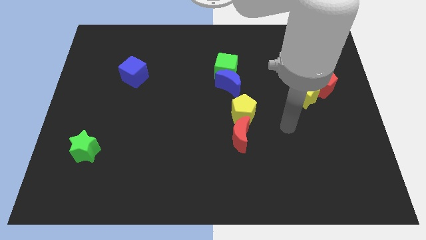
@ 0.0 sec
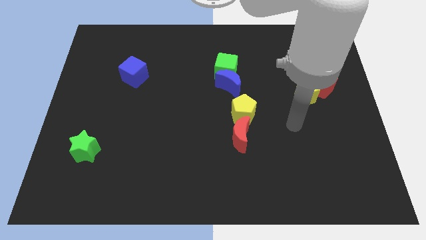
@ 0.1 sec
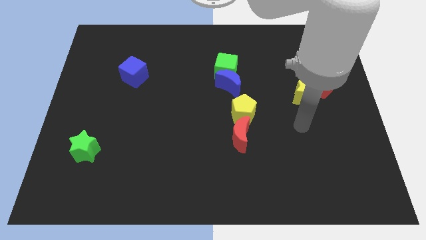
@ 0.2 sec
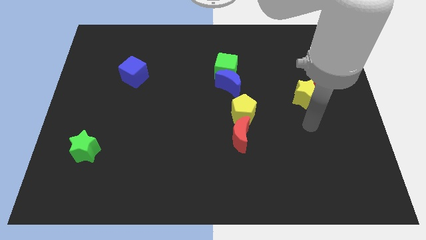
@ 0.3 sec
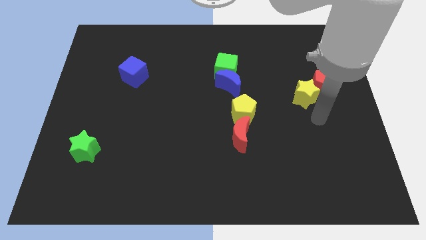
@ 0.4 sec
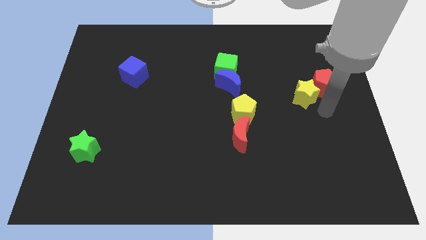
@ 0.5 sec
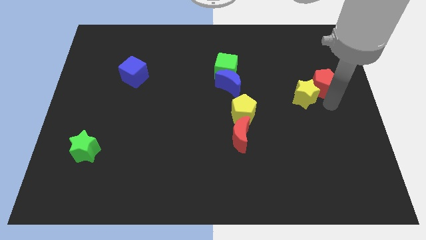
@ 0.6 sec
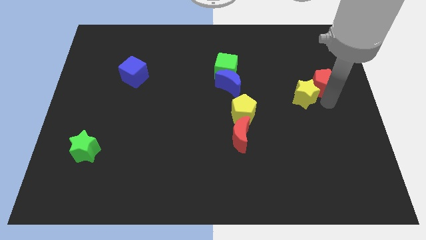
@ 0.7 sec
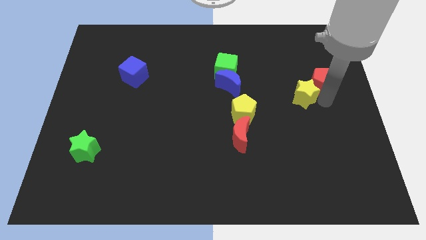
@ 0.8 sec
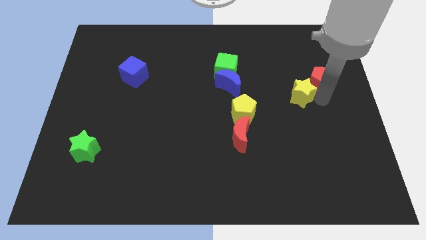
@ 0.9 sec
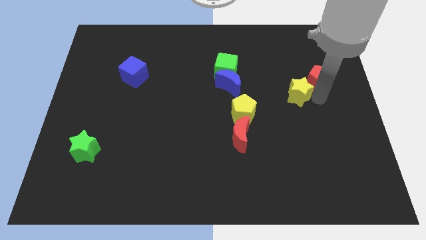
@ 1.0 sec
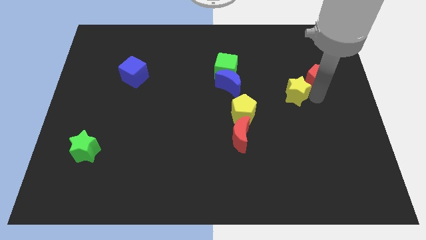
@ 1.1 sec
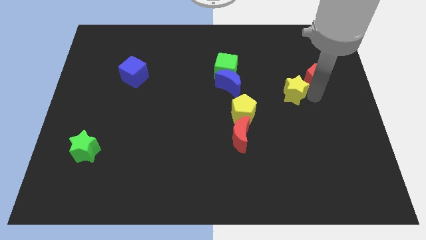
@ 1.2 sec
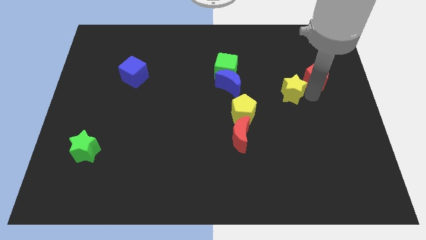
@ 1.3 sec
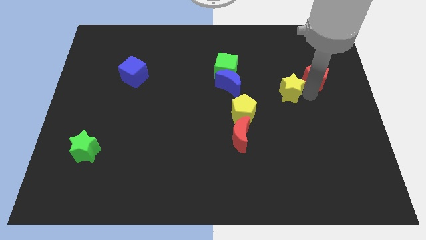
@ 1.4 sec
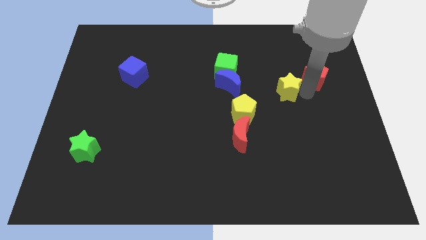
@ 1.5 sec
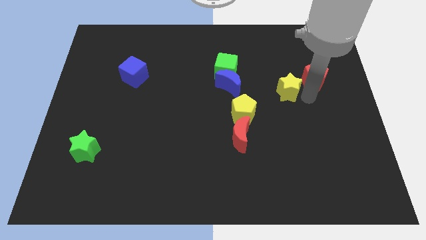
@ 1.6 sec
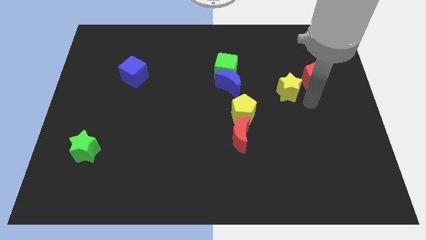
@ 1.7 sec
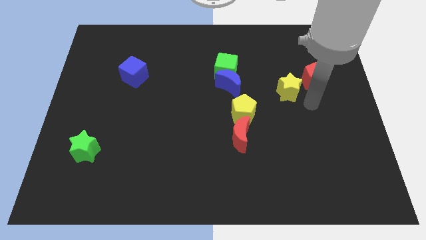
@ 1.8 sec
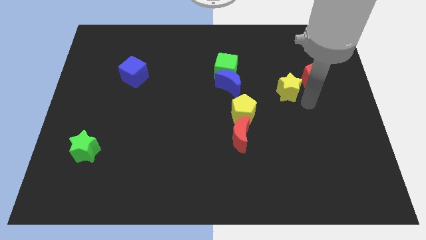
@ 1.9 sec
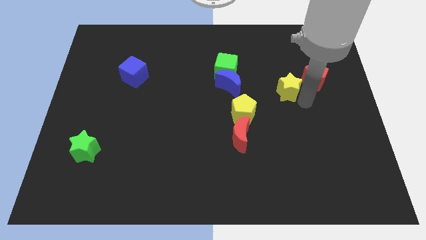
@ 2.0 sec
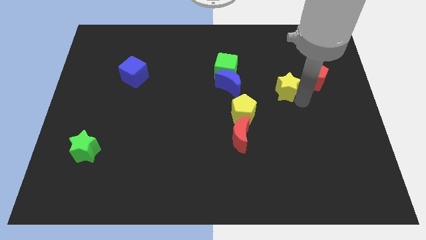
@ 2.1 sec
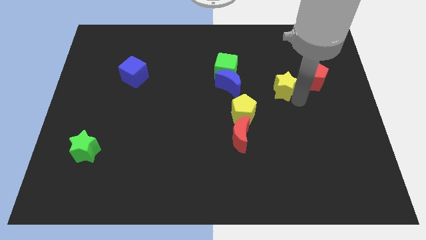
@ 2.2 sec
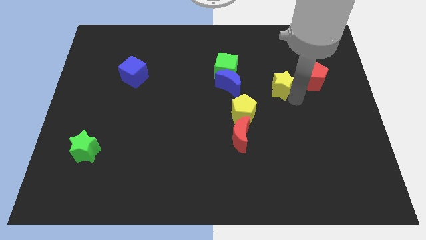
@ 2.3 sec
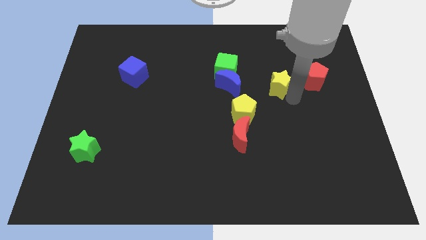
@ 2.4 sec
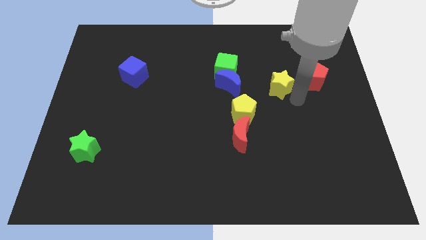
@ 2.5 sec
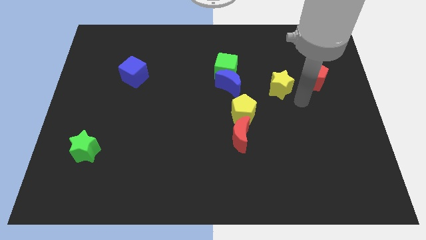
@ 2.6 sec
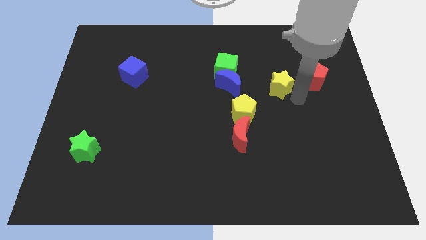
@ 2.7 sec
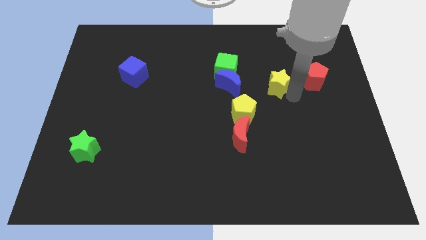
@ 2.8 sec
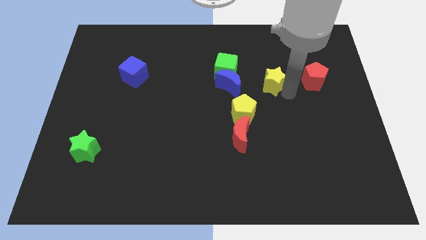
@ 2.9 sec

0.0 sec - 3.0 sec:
slide the yellow star a little upwards and then to the left

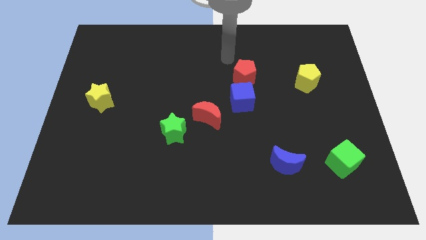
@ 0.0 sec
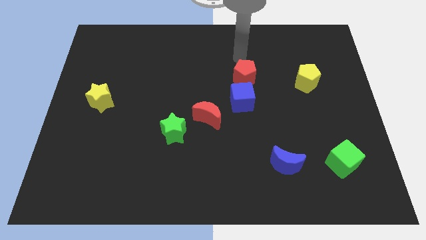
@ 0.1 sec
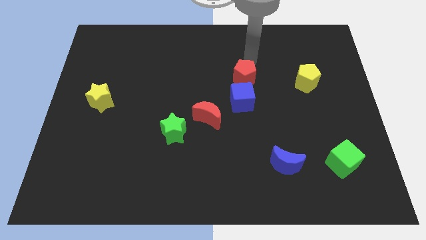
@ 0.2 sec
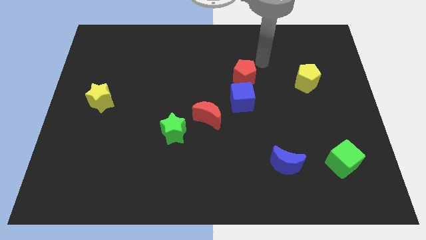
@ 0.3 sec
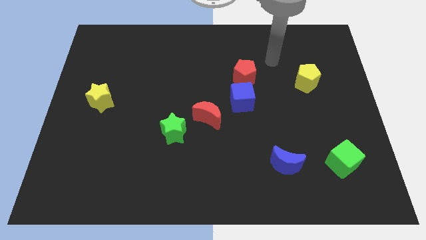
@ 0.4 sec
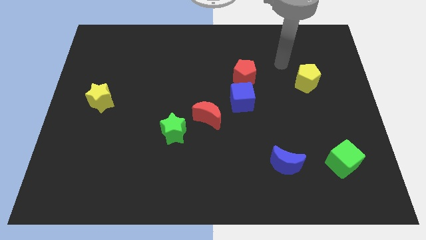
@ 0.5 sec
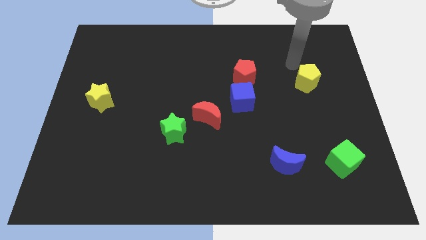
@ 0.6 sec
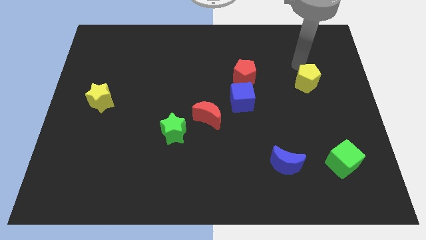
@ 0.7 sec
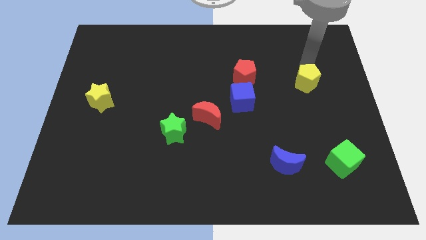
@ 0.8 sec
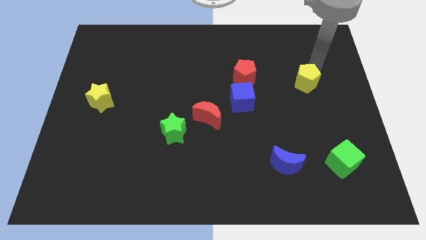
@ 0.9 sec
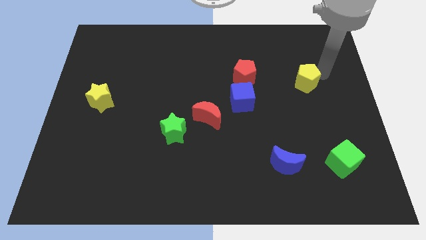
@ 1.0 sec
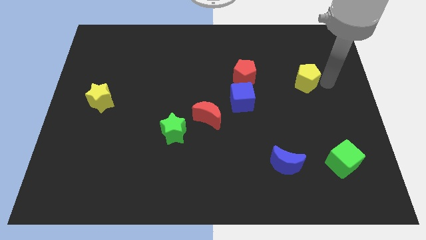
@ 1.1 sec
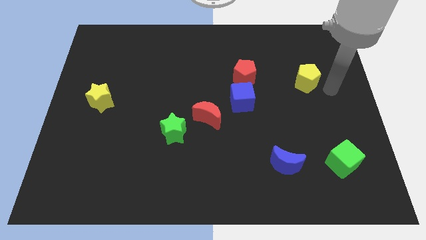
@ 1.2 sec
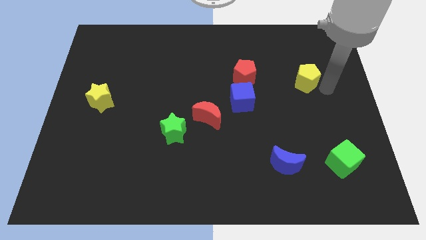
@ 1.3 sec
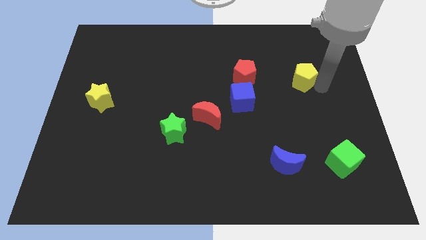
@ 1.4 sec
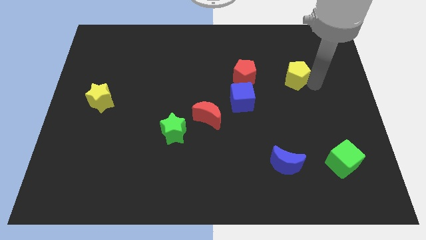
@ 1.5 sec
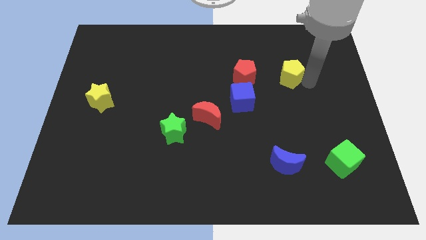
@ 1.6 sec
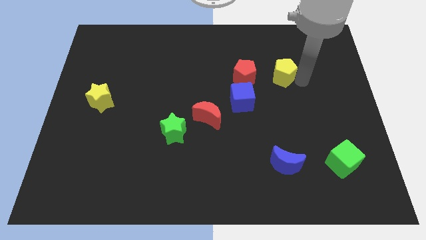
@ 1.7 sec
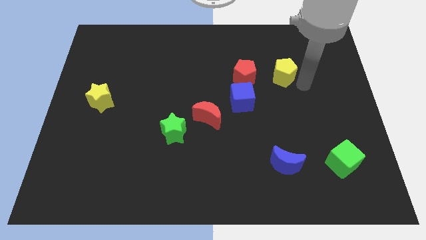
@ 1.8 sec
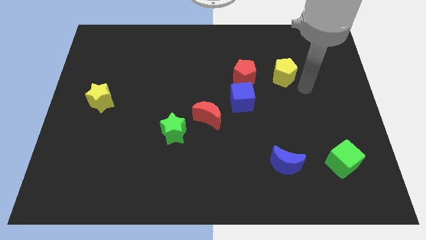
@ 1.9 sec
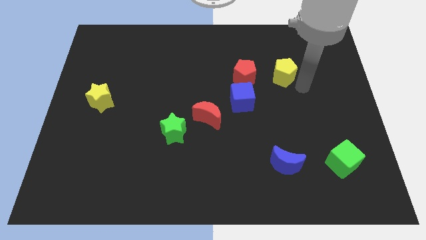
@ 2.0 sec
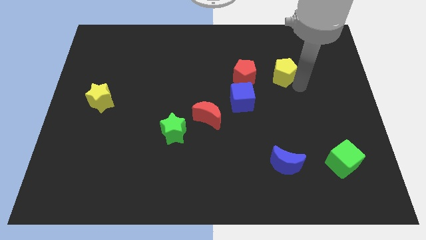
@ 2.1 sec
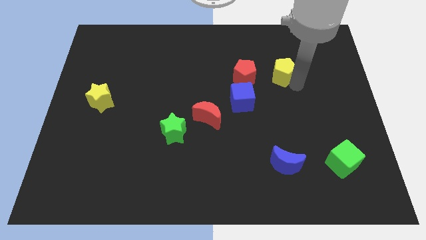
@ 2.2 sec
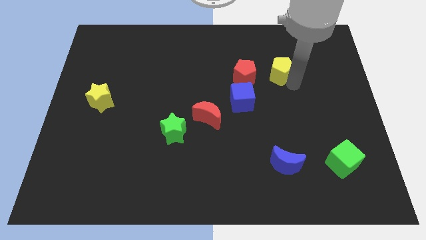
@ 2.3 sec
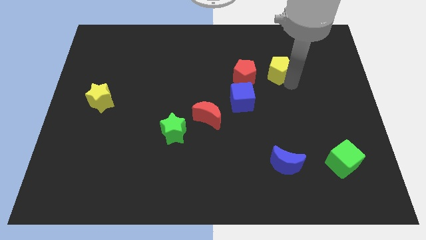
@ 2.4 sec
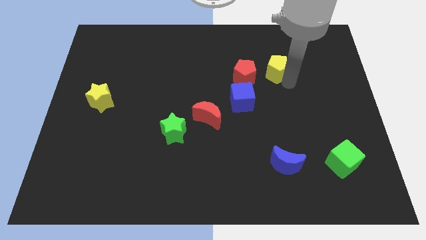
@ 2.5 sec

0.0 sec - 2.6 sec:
slide the yellow pentagon to the left slightly

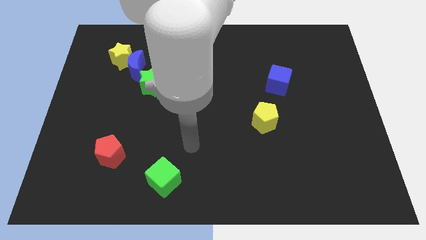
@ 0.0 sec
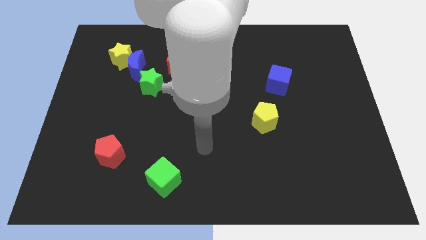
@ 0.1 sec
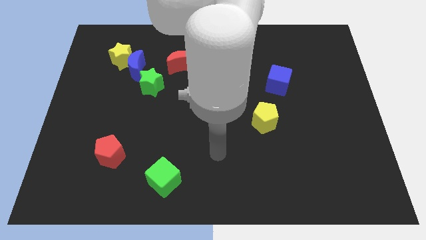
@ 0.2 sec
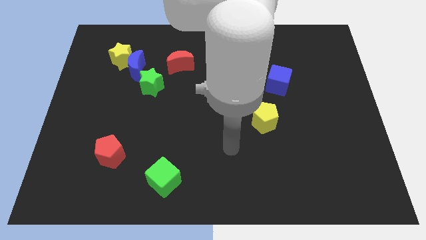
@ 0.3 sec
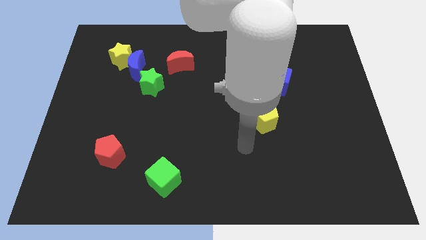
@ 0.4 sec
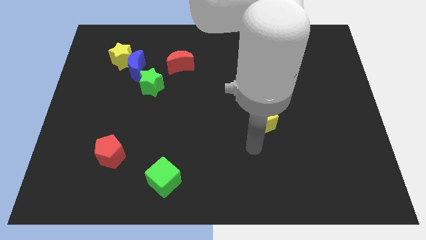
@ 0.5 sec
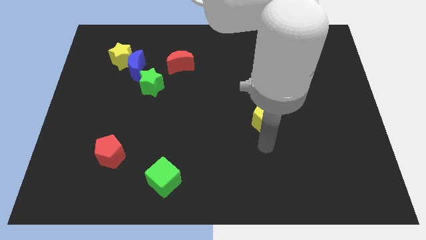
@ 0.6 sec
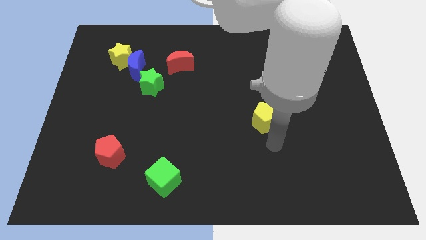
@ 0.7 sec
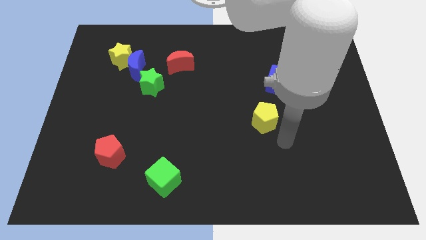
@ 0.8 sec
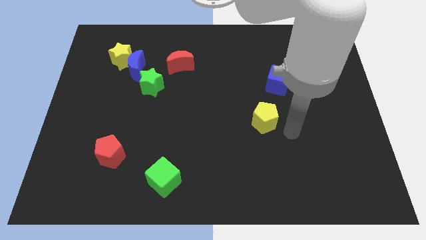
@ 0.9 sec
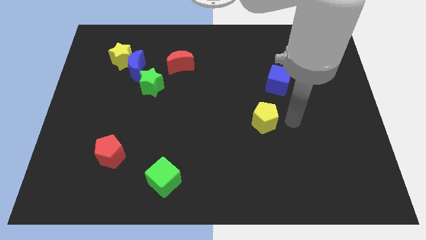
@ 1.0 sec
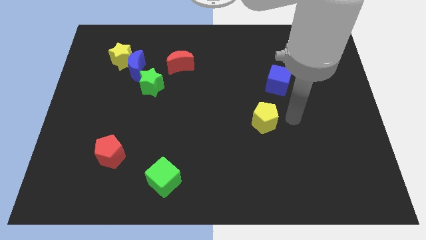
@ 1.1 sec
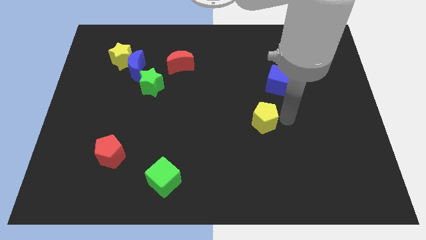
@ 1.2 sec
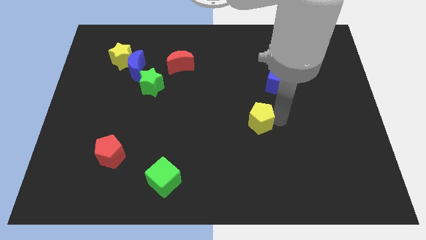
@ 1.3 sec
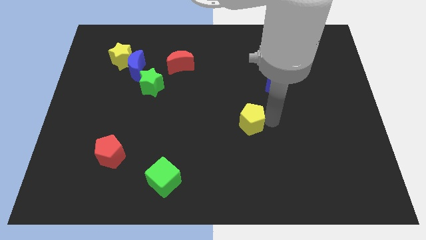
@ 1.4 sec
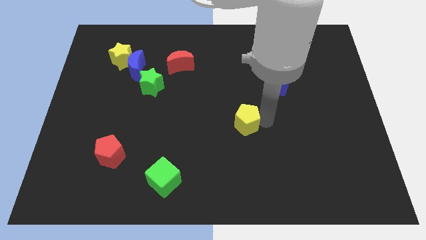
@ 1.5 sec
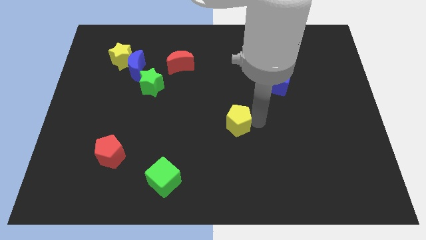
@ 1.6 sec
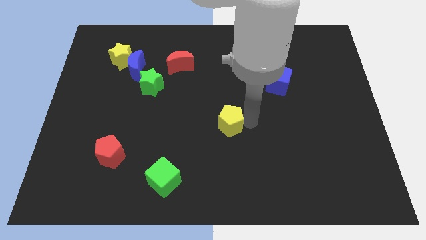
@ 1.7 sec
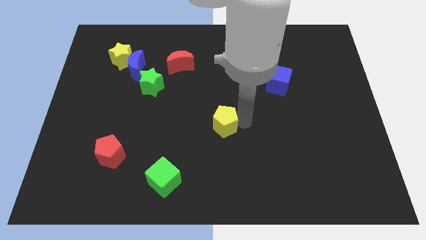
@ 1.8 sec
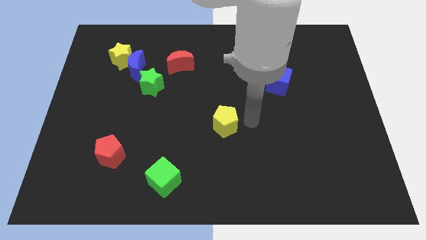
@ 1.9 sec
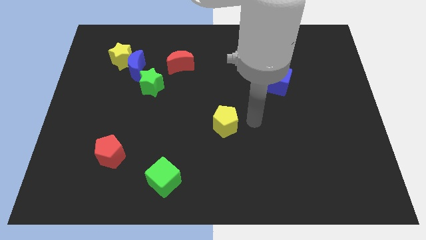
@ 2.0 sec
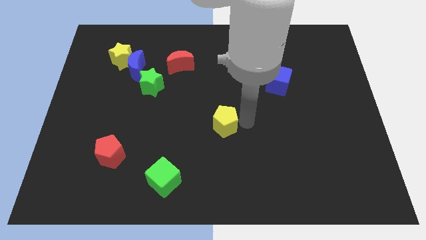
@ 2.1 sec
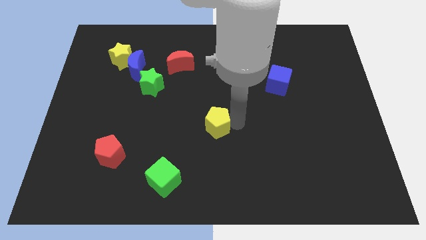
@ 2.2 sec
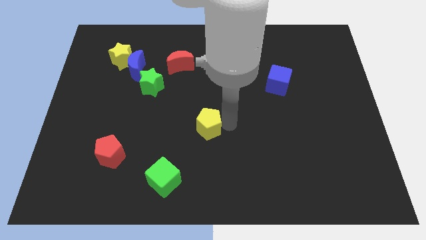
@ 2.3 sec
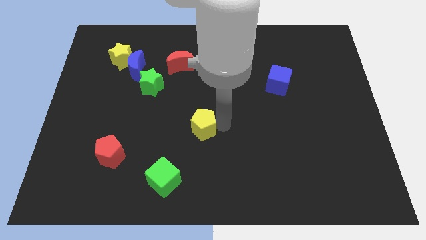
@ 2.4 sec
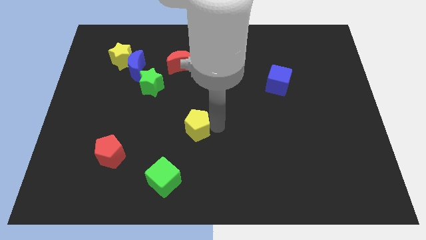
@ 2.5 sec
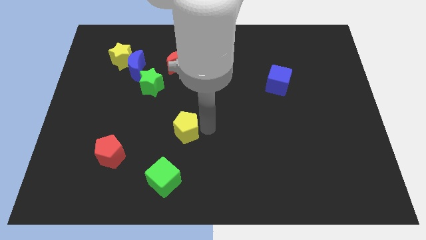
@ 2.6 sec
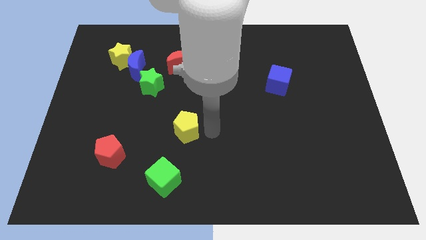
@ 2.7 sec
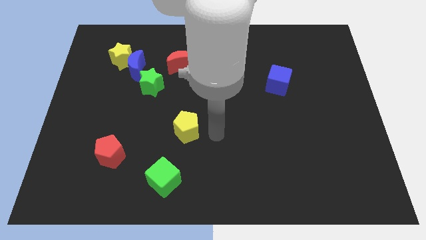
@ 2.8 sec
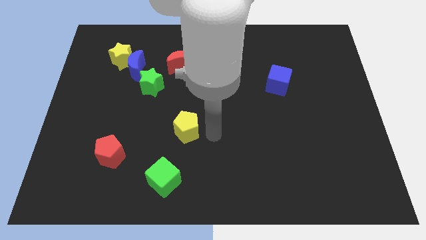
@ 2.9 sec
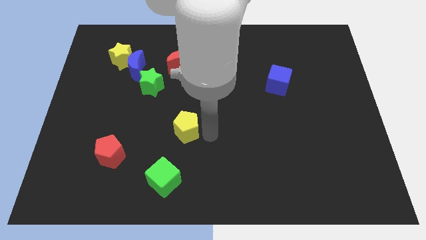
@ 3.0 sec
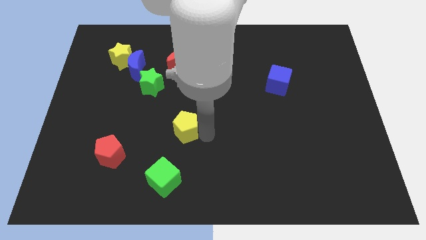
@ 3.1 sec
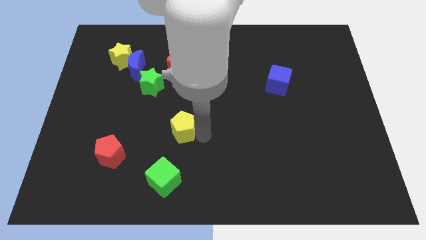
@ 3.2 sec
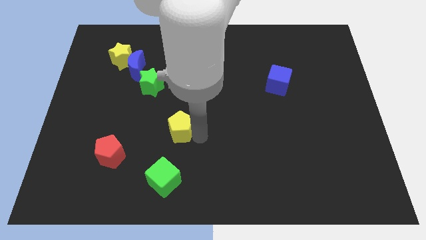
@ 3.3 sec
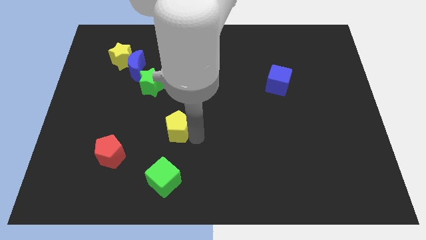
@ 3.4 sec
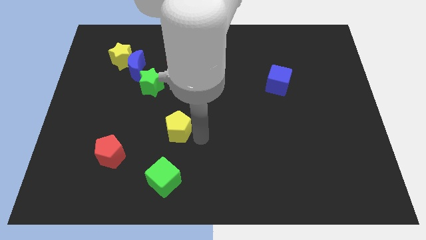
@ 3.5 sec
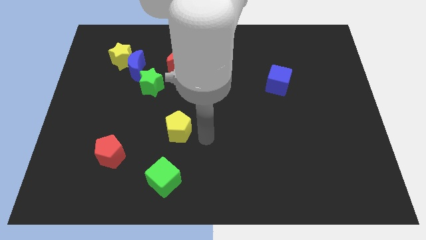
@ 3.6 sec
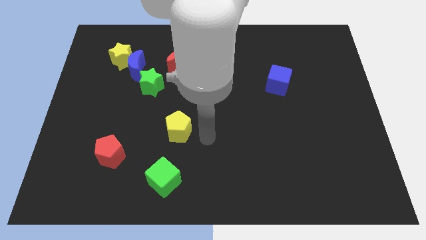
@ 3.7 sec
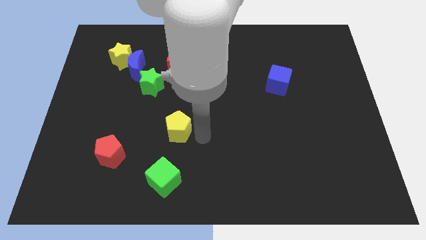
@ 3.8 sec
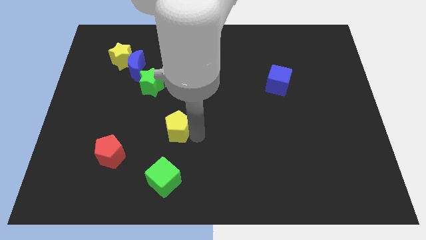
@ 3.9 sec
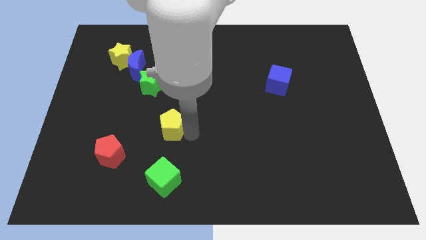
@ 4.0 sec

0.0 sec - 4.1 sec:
push the yellow pentagon left
